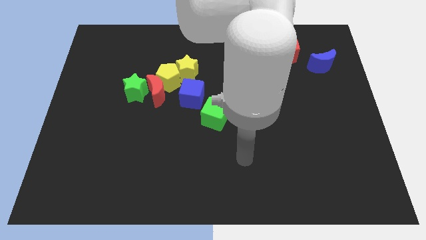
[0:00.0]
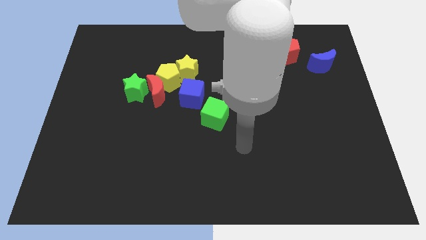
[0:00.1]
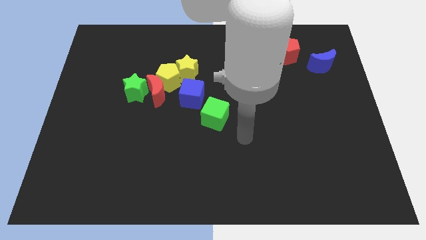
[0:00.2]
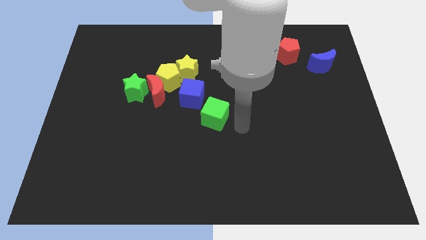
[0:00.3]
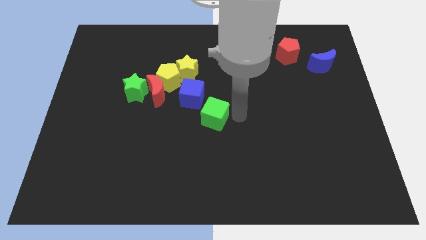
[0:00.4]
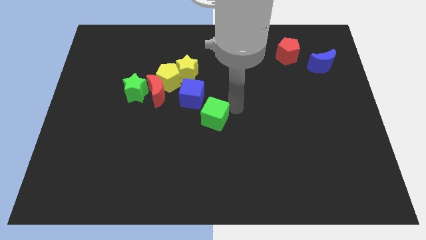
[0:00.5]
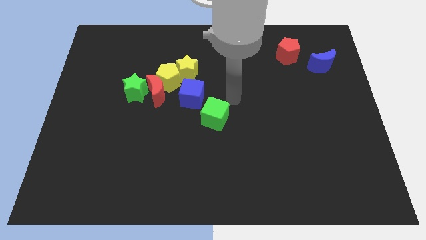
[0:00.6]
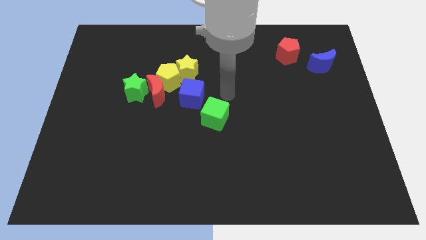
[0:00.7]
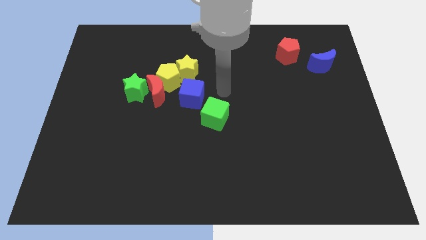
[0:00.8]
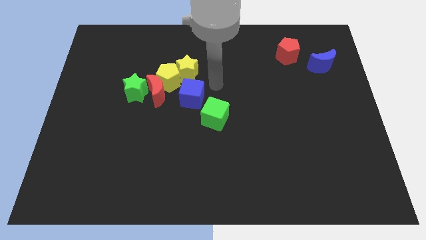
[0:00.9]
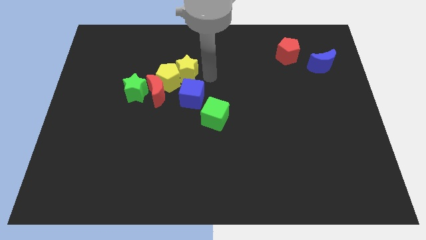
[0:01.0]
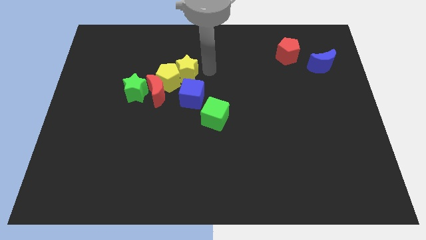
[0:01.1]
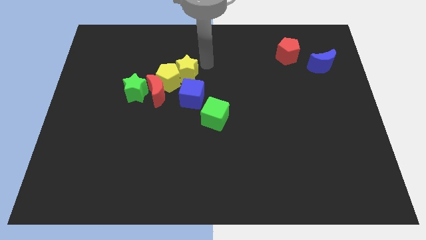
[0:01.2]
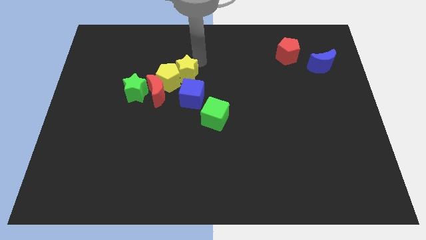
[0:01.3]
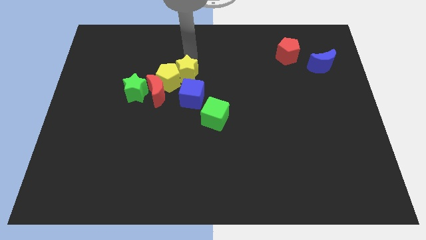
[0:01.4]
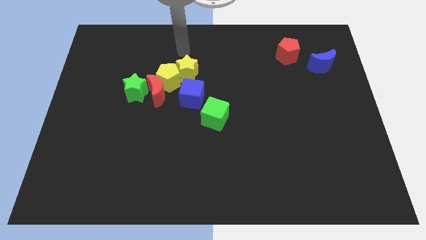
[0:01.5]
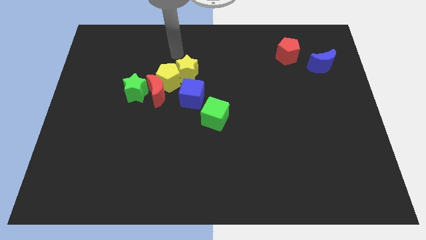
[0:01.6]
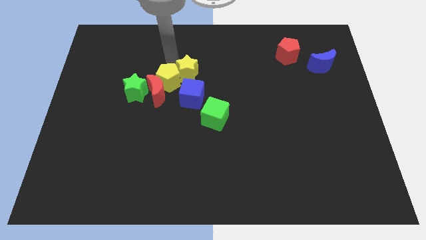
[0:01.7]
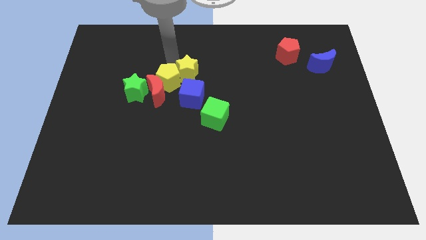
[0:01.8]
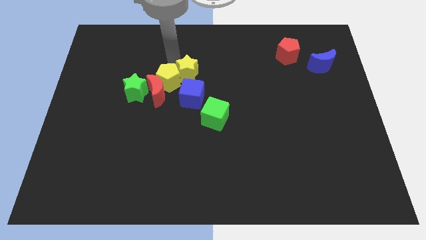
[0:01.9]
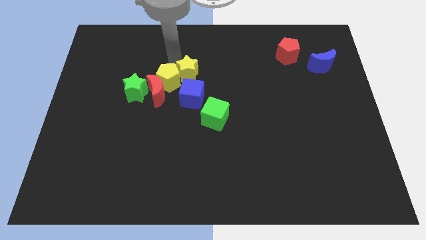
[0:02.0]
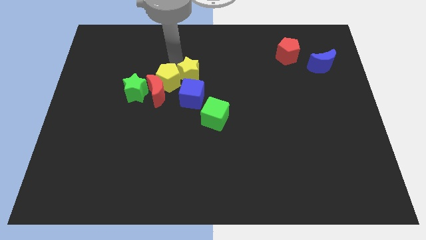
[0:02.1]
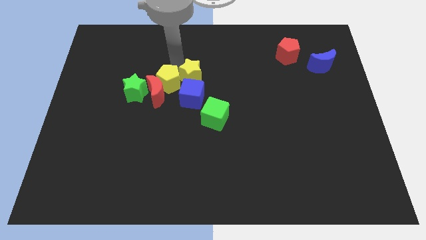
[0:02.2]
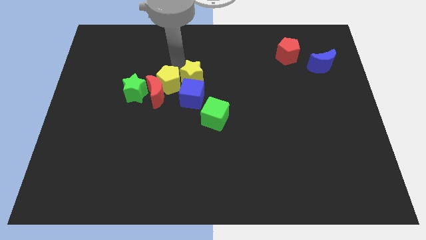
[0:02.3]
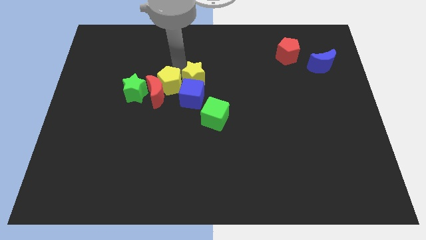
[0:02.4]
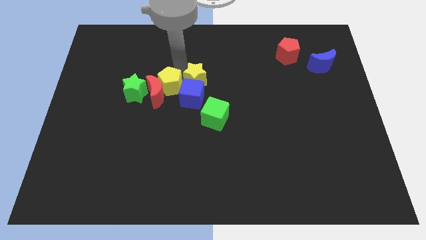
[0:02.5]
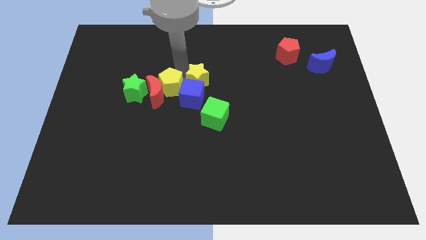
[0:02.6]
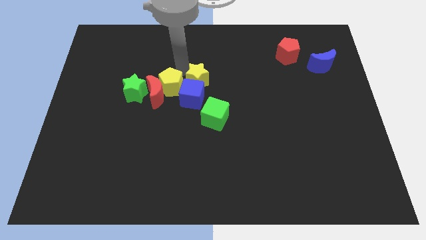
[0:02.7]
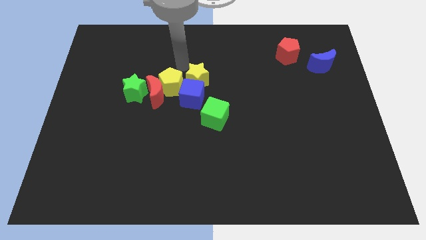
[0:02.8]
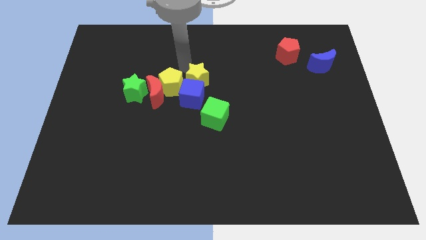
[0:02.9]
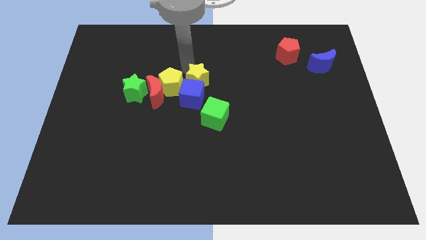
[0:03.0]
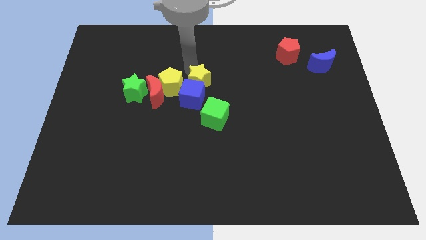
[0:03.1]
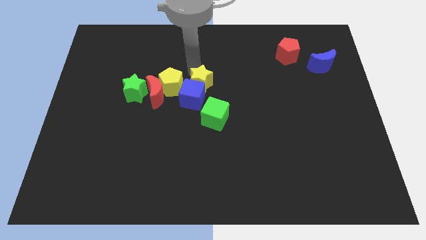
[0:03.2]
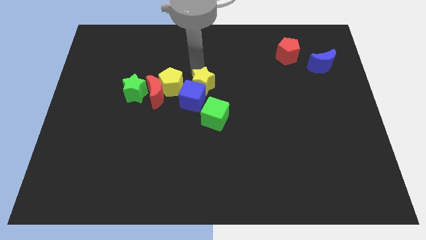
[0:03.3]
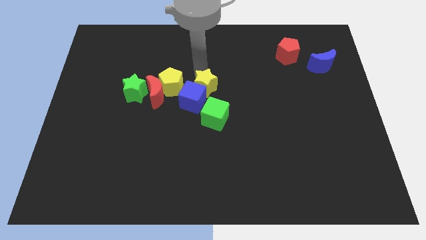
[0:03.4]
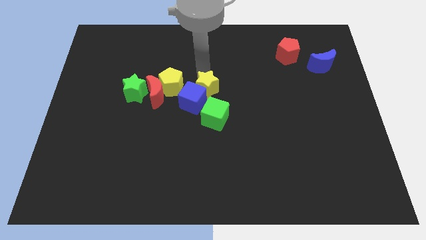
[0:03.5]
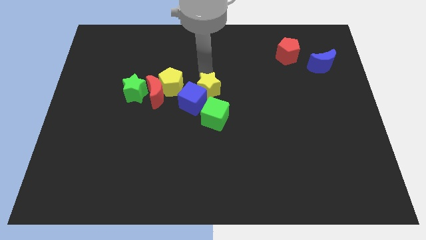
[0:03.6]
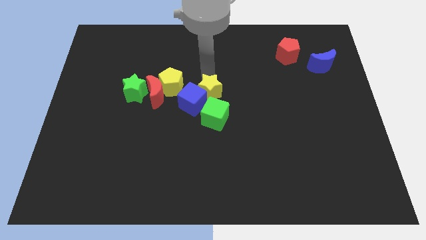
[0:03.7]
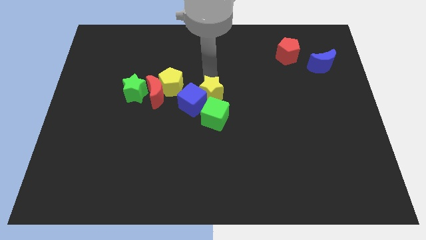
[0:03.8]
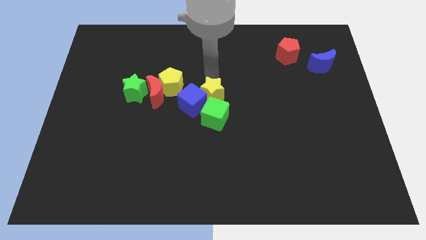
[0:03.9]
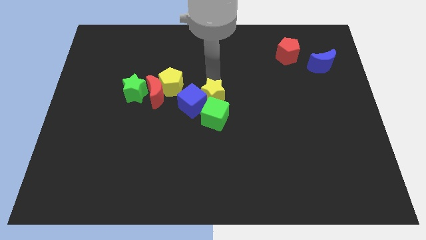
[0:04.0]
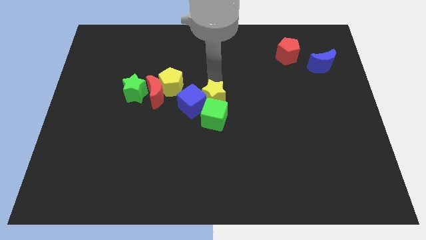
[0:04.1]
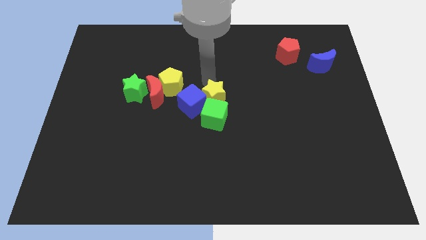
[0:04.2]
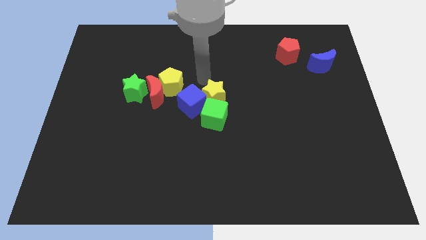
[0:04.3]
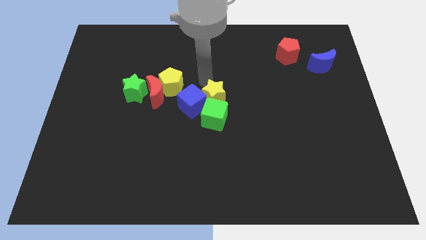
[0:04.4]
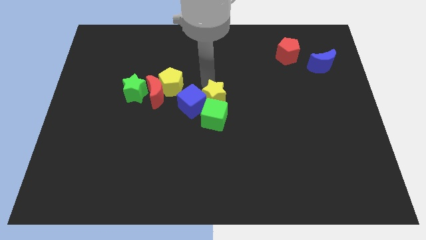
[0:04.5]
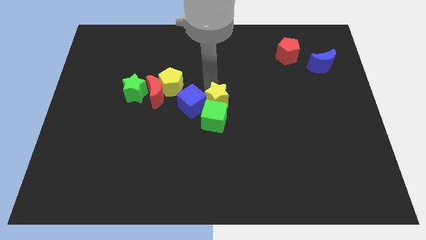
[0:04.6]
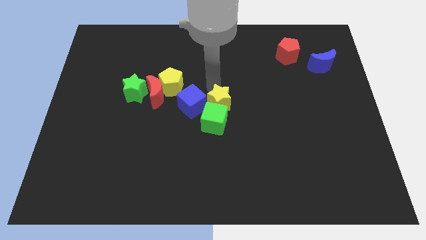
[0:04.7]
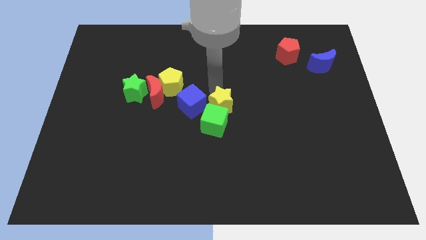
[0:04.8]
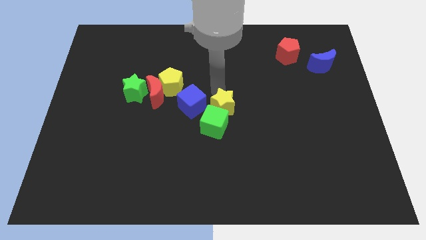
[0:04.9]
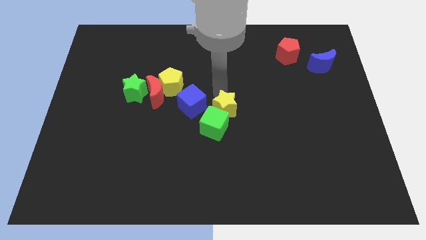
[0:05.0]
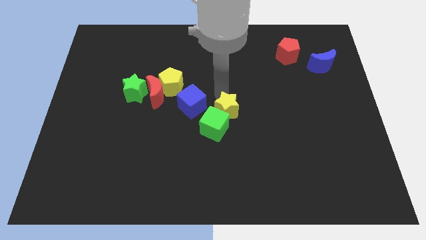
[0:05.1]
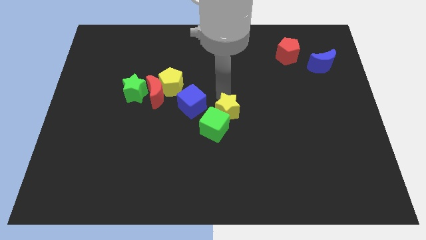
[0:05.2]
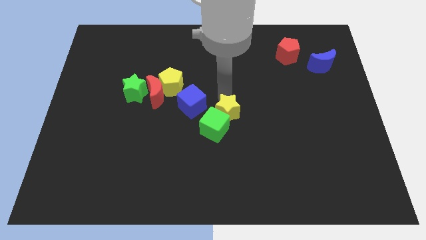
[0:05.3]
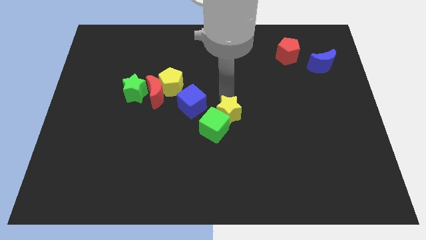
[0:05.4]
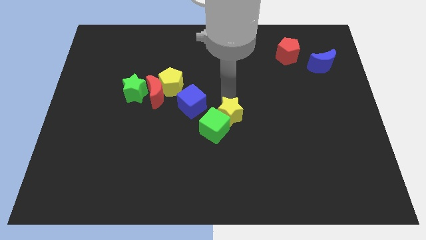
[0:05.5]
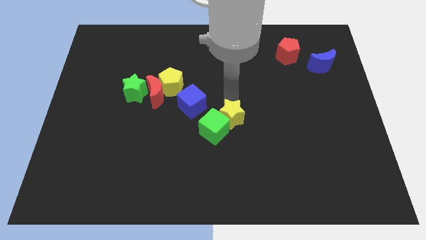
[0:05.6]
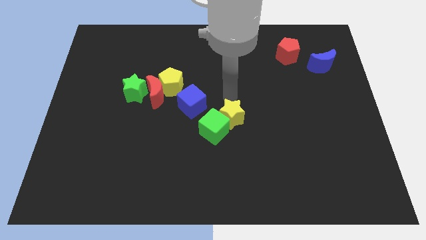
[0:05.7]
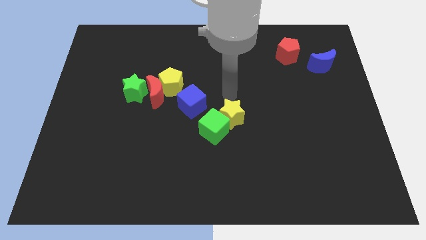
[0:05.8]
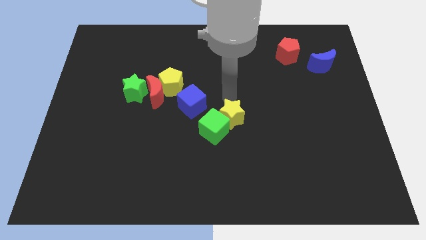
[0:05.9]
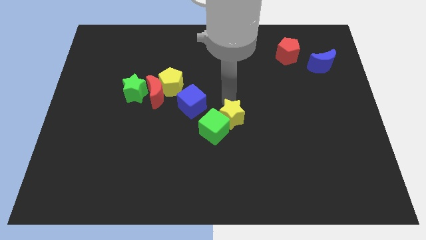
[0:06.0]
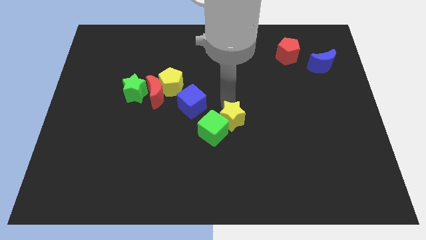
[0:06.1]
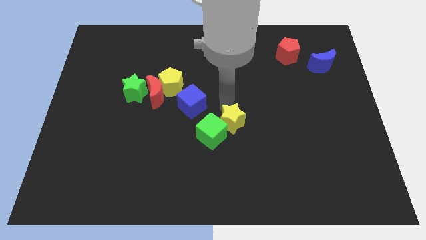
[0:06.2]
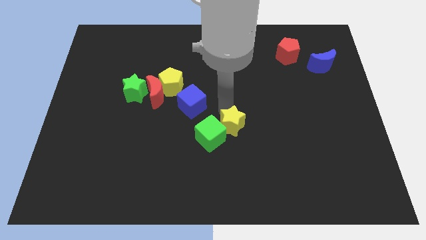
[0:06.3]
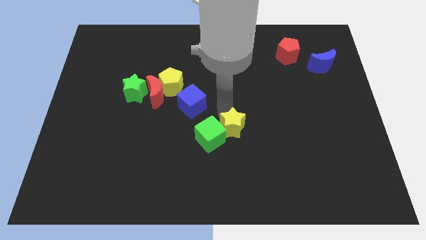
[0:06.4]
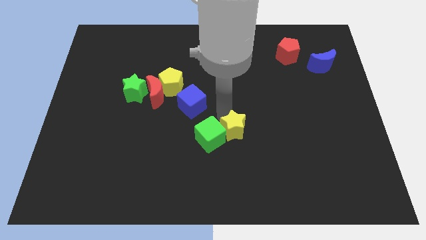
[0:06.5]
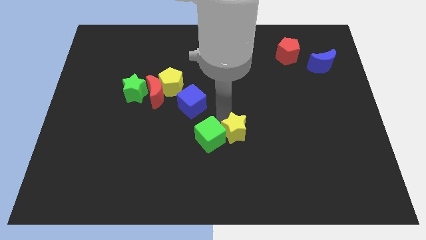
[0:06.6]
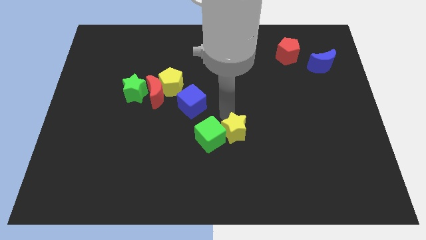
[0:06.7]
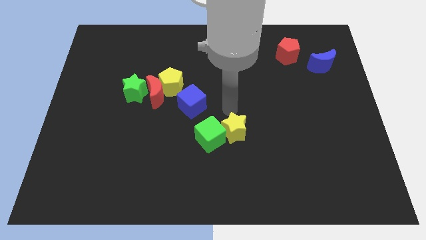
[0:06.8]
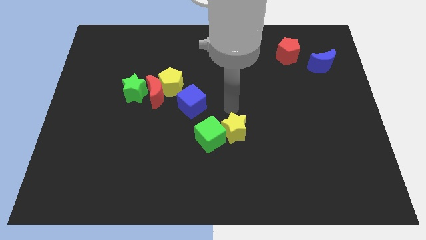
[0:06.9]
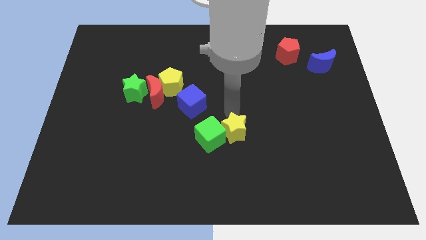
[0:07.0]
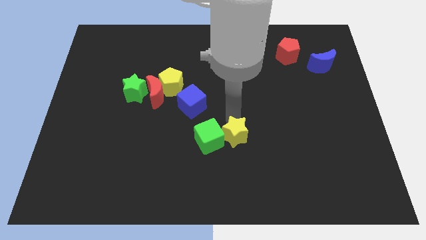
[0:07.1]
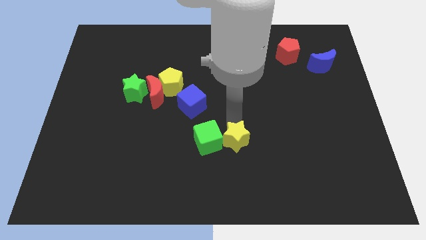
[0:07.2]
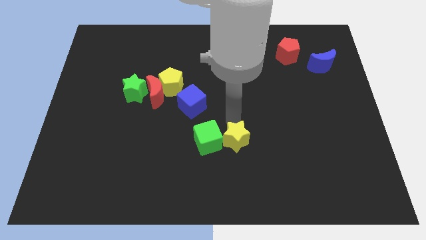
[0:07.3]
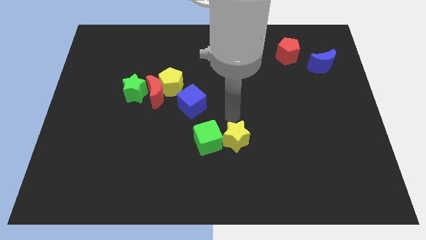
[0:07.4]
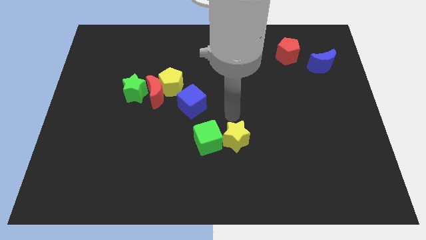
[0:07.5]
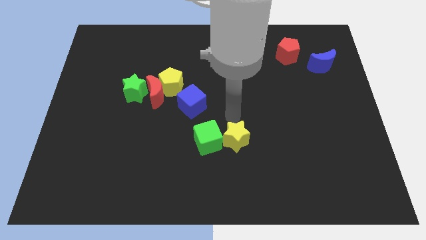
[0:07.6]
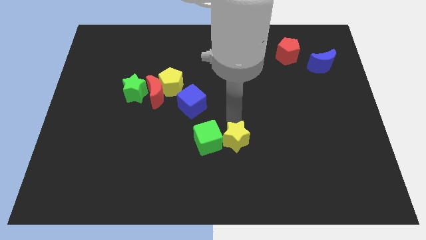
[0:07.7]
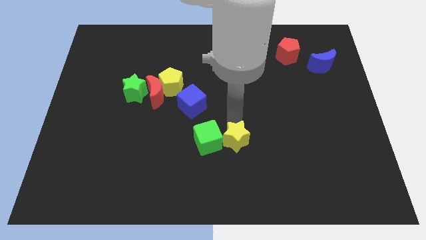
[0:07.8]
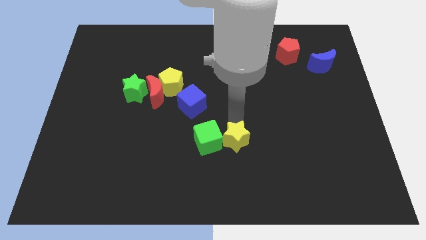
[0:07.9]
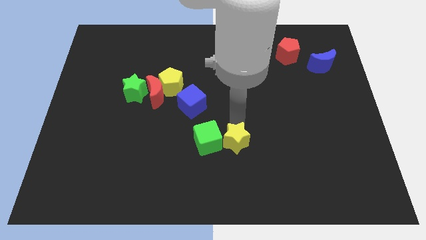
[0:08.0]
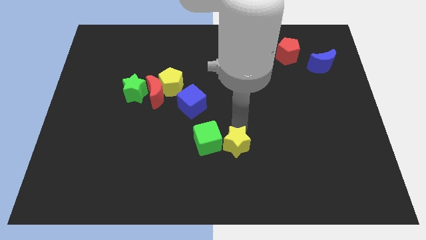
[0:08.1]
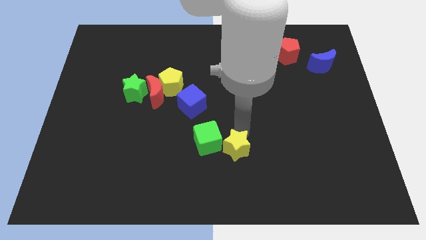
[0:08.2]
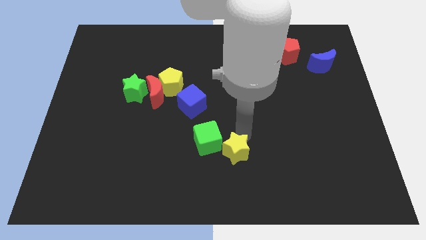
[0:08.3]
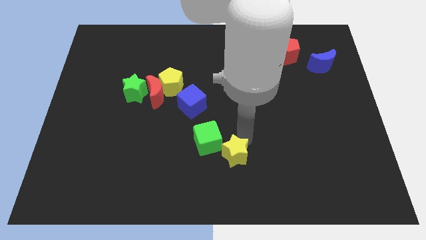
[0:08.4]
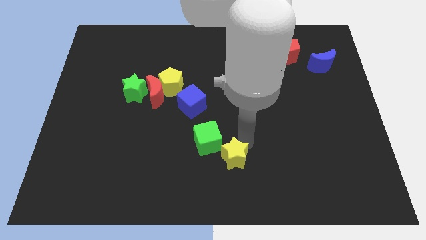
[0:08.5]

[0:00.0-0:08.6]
move the yellow star to the bottom
